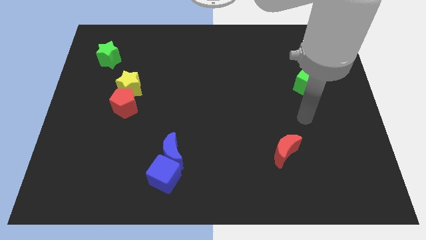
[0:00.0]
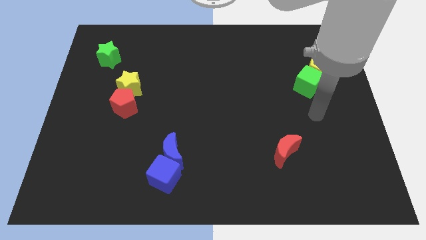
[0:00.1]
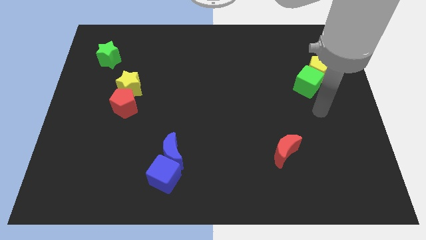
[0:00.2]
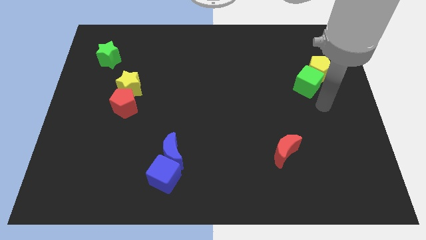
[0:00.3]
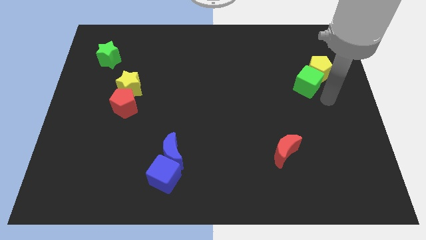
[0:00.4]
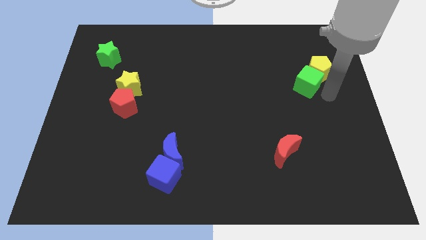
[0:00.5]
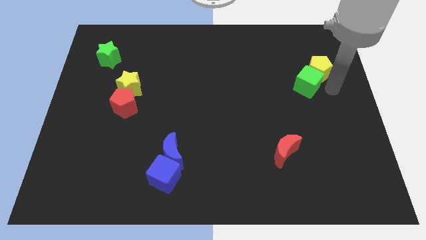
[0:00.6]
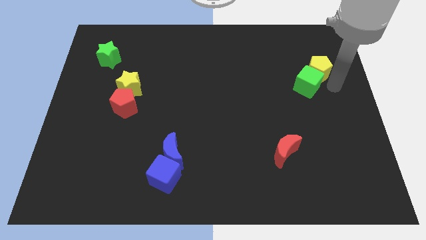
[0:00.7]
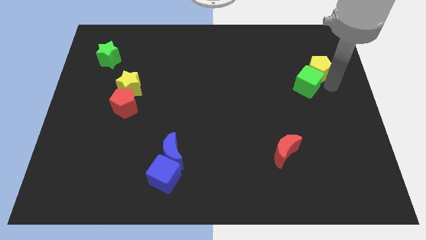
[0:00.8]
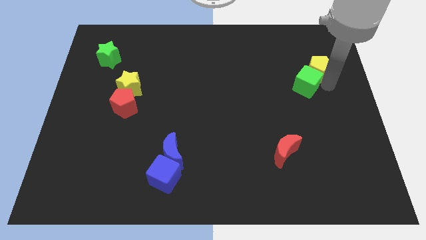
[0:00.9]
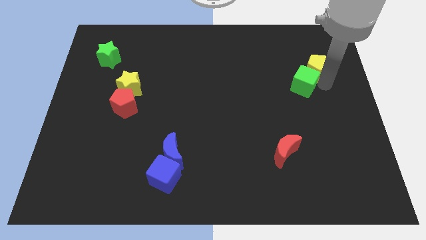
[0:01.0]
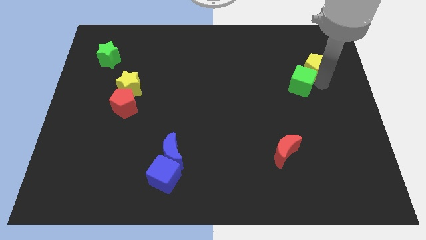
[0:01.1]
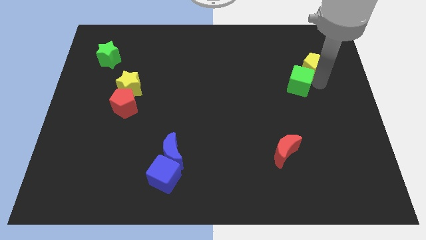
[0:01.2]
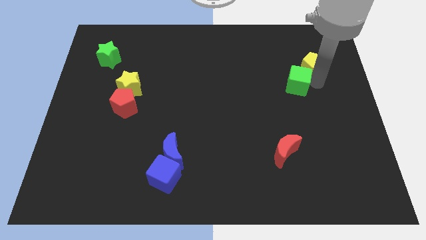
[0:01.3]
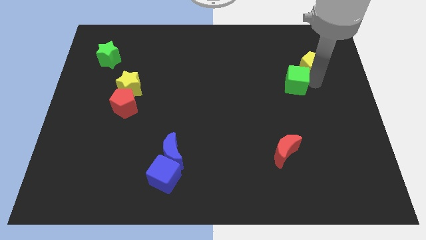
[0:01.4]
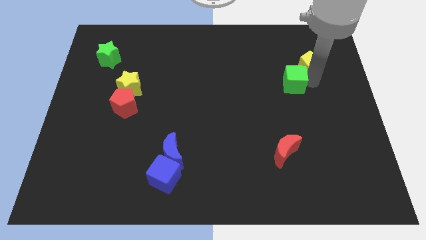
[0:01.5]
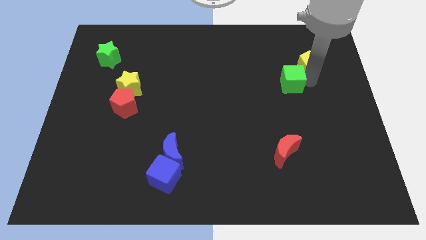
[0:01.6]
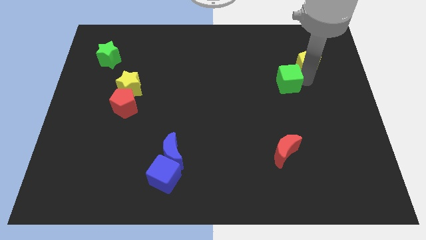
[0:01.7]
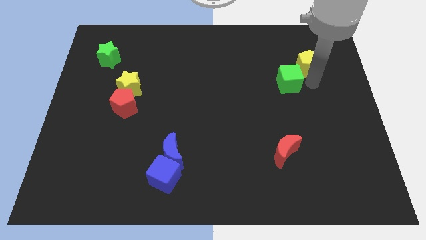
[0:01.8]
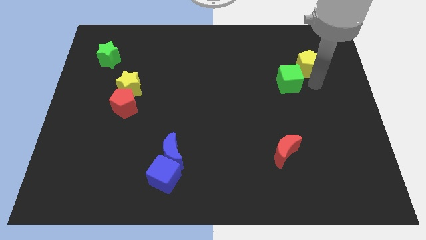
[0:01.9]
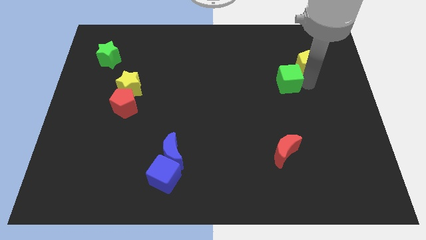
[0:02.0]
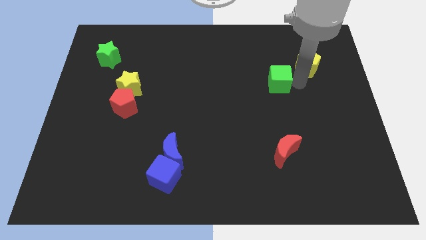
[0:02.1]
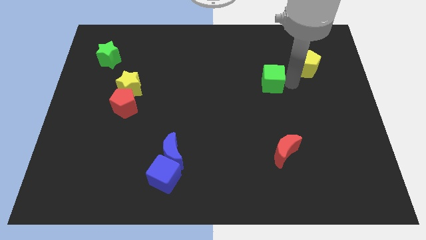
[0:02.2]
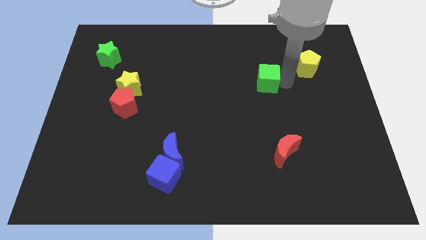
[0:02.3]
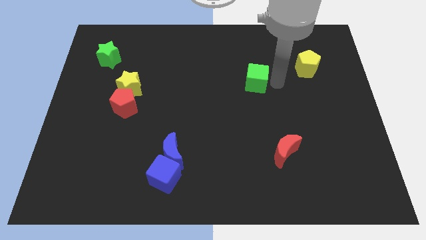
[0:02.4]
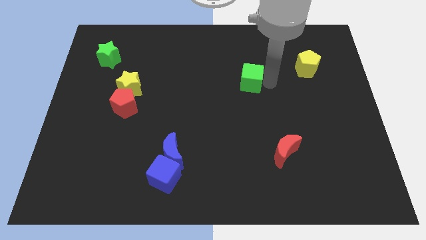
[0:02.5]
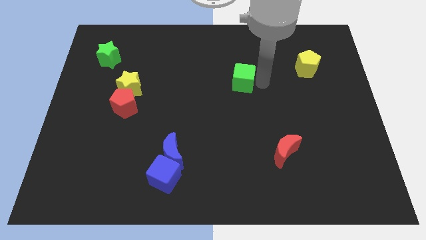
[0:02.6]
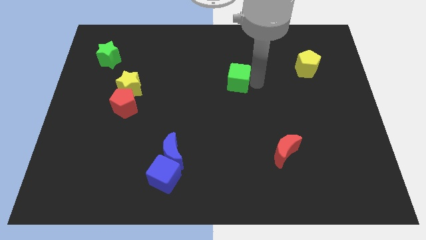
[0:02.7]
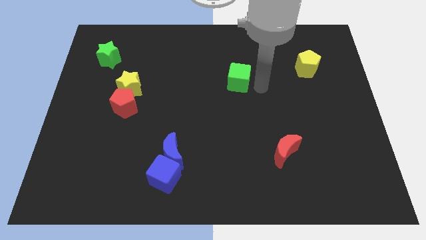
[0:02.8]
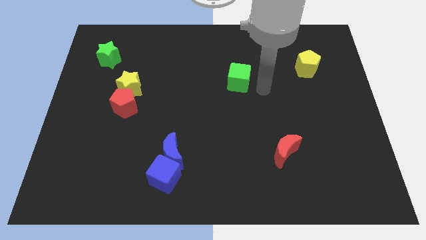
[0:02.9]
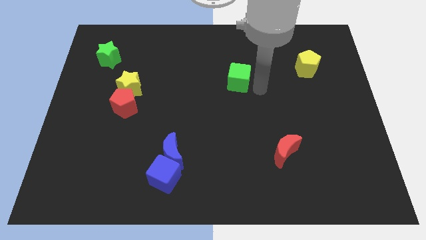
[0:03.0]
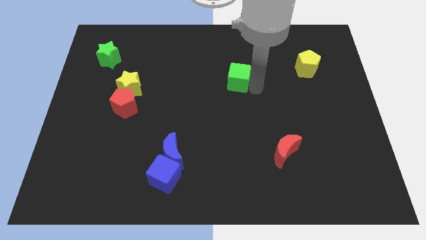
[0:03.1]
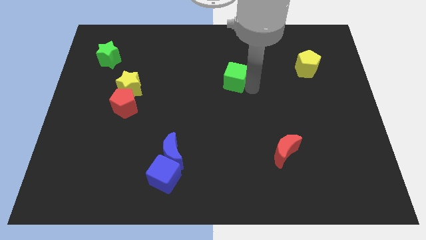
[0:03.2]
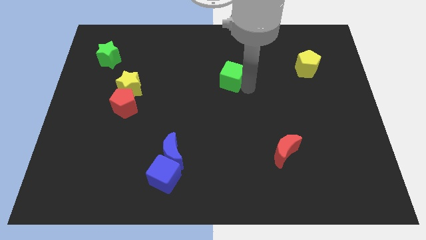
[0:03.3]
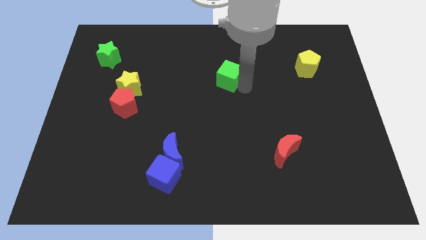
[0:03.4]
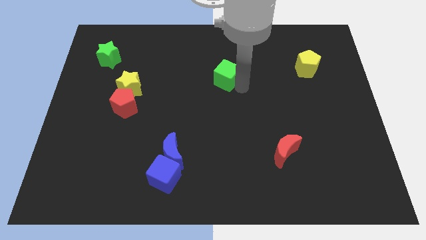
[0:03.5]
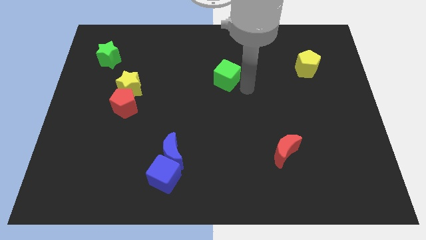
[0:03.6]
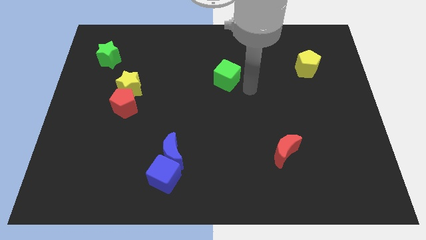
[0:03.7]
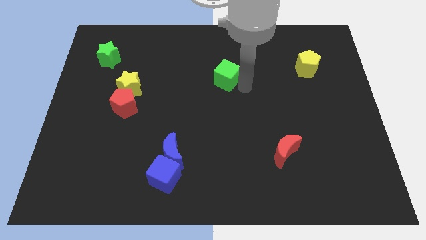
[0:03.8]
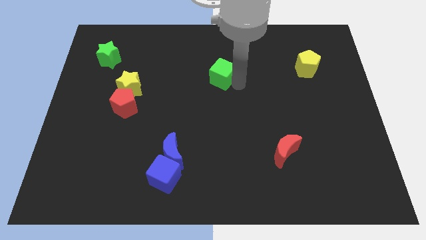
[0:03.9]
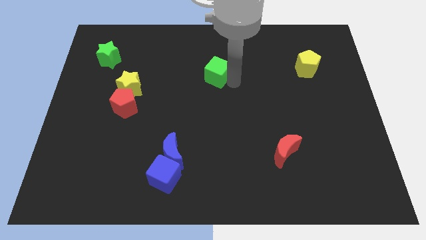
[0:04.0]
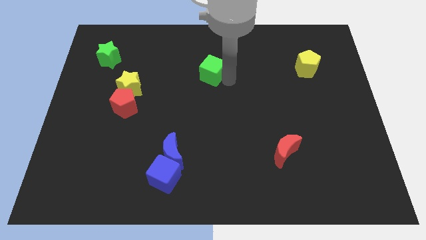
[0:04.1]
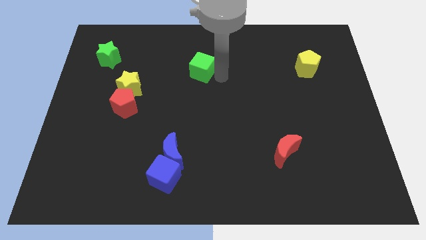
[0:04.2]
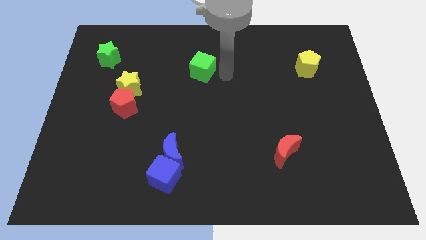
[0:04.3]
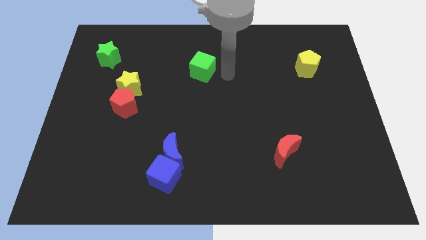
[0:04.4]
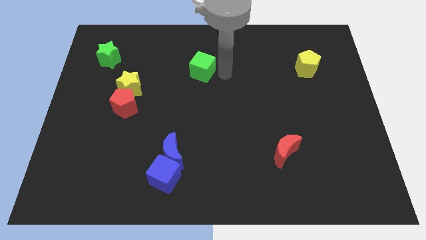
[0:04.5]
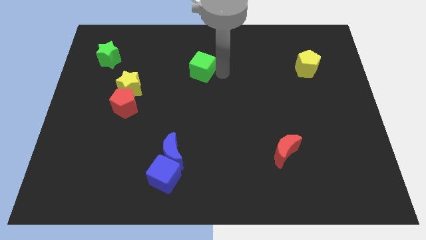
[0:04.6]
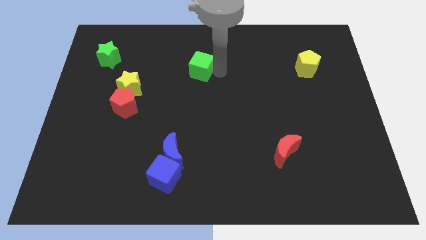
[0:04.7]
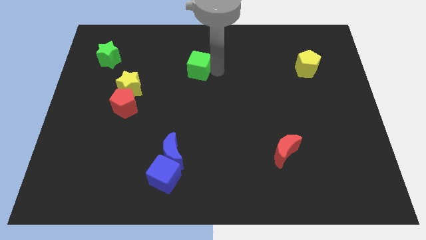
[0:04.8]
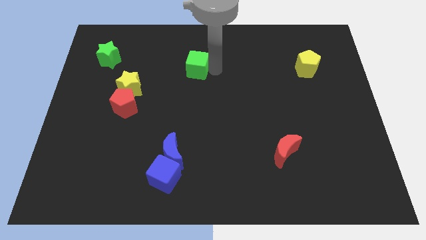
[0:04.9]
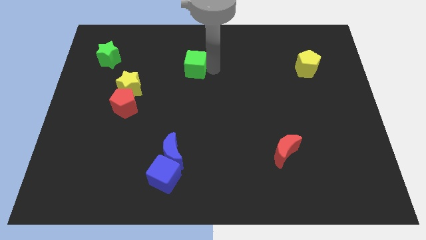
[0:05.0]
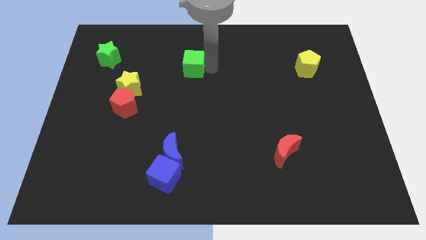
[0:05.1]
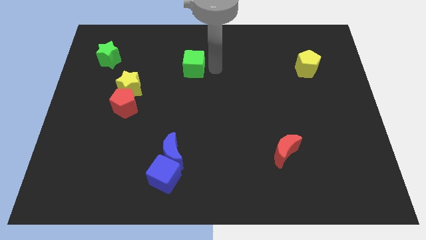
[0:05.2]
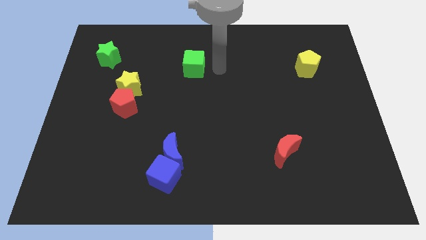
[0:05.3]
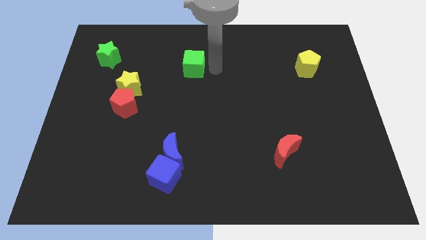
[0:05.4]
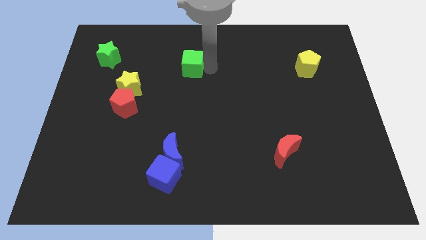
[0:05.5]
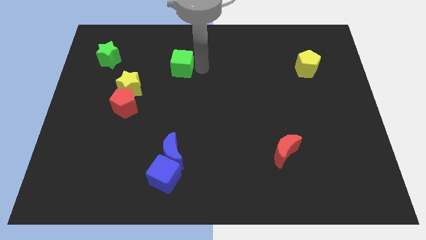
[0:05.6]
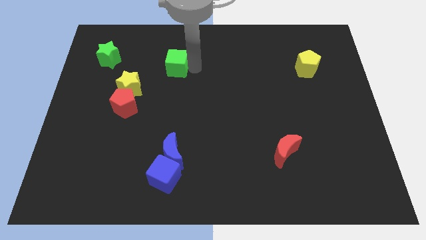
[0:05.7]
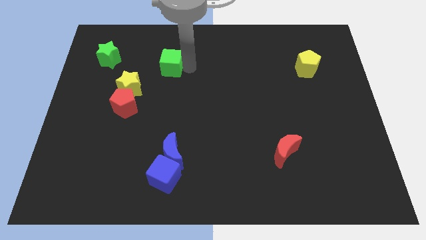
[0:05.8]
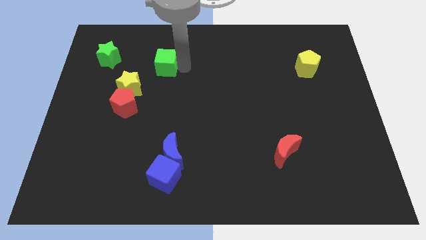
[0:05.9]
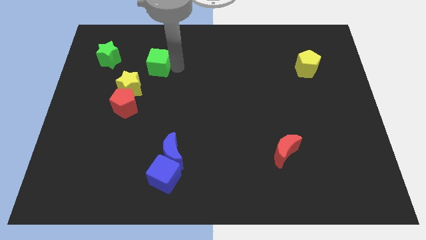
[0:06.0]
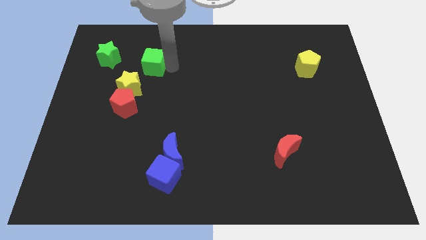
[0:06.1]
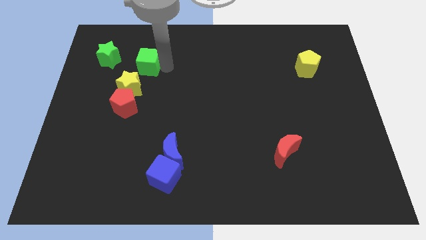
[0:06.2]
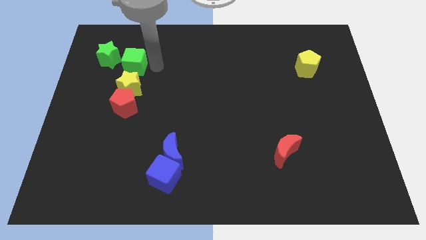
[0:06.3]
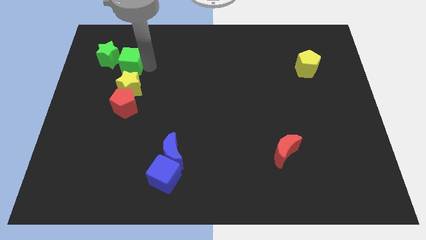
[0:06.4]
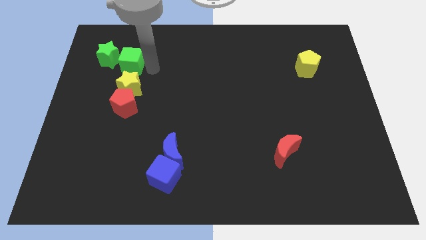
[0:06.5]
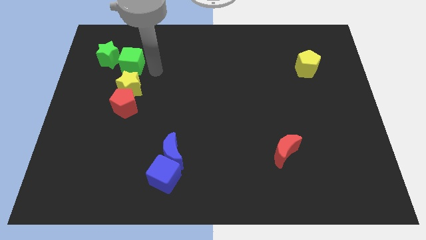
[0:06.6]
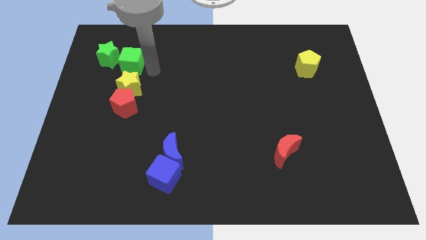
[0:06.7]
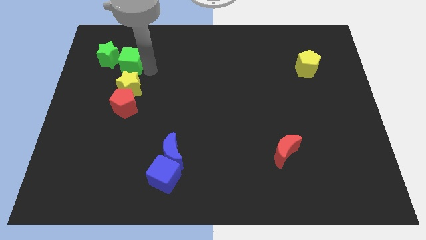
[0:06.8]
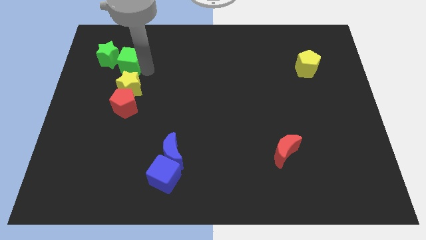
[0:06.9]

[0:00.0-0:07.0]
slide the green cube next to the green star

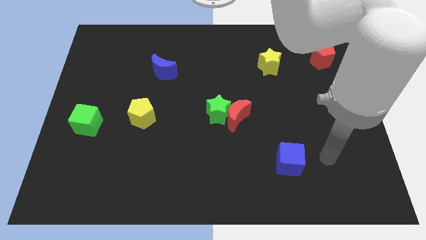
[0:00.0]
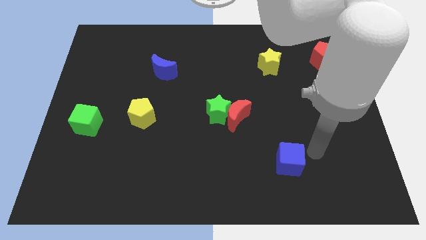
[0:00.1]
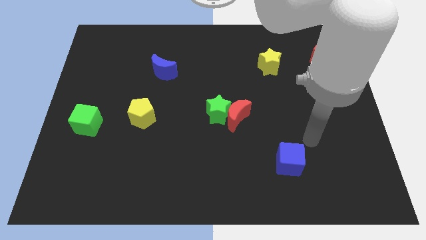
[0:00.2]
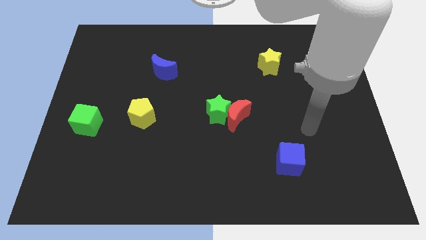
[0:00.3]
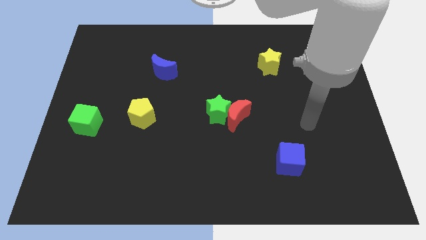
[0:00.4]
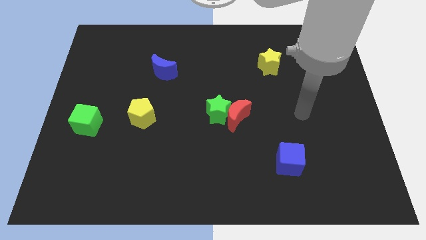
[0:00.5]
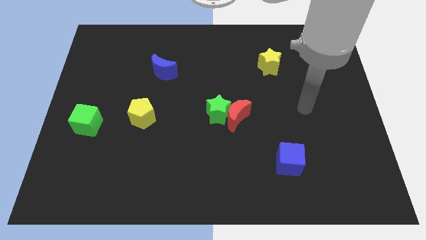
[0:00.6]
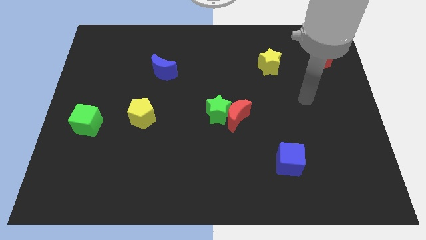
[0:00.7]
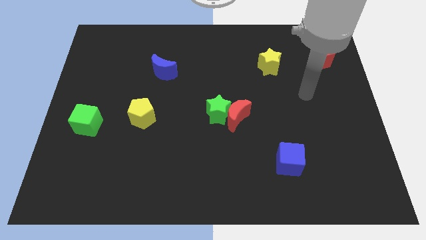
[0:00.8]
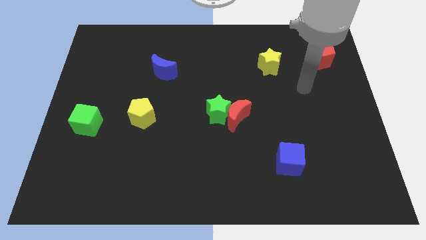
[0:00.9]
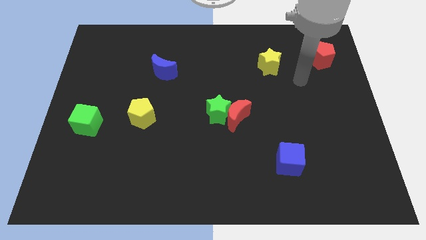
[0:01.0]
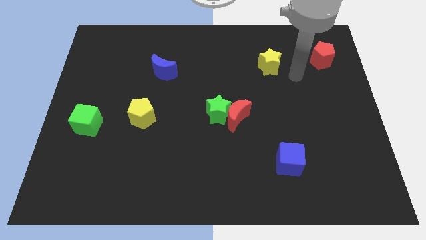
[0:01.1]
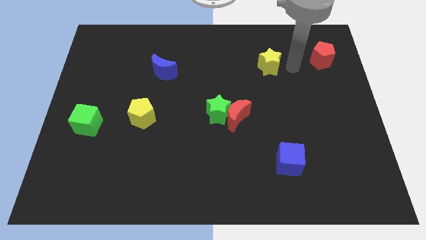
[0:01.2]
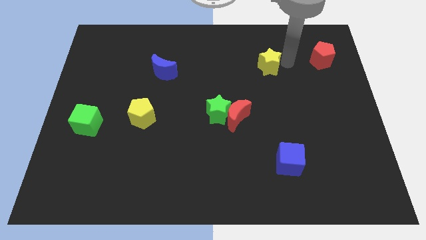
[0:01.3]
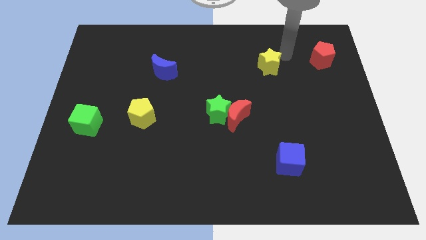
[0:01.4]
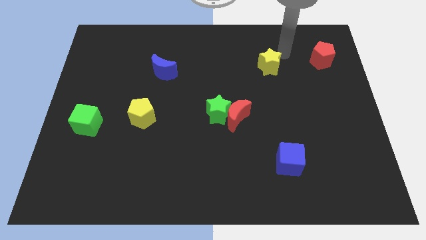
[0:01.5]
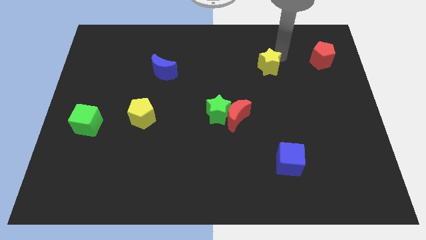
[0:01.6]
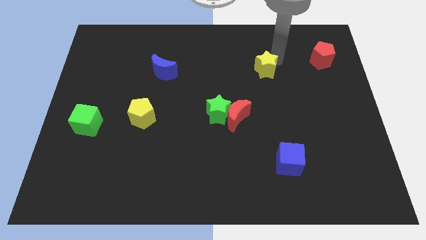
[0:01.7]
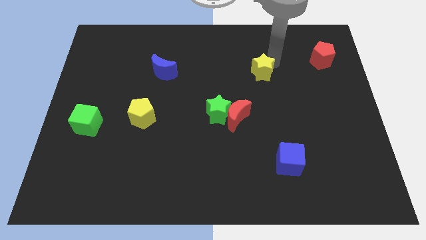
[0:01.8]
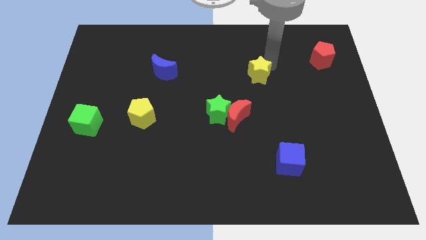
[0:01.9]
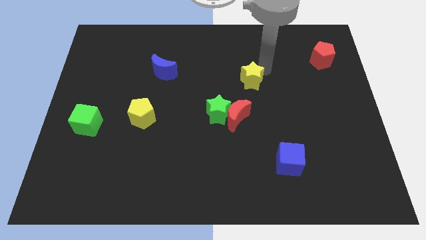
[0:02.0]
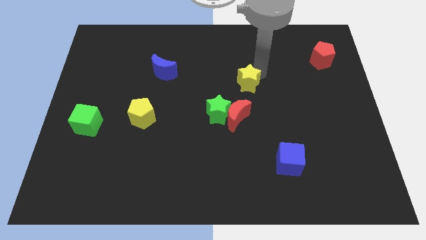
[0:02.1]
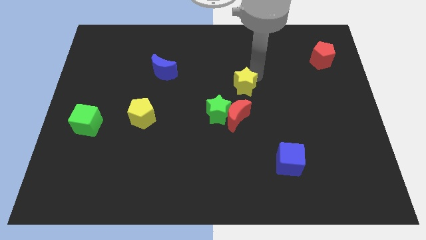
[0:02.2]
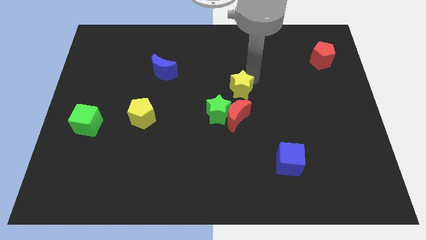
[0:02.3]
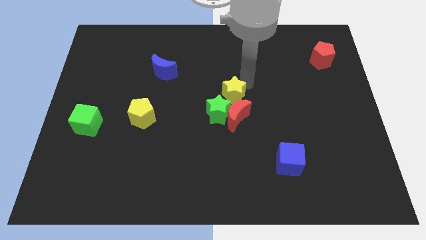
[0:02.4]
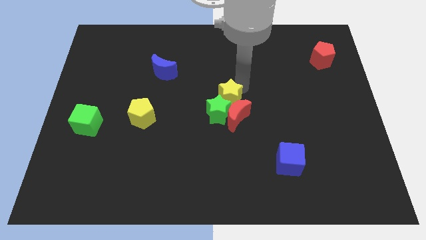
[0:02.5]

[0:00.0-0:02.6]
move the yellow star towards the green star
